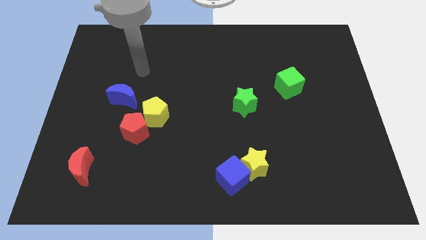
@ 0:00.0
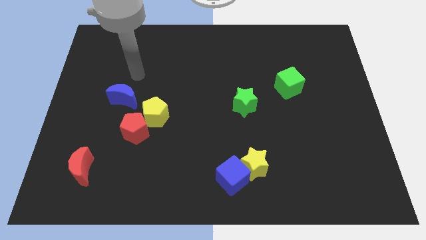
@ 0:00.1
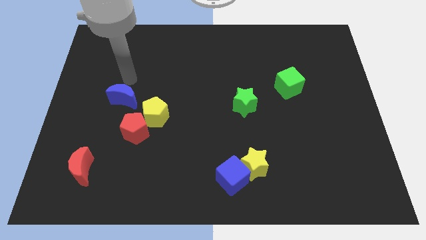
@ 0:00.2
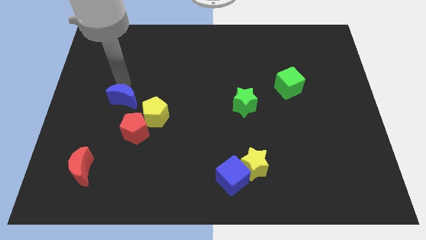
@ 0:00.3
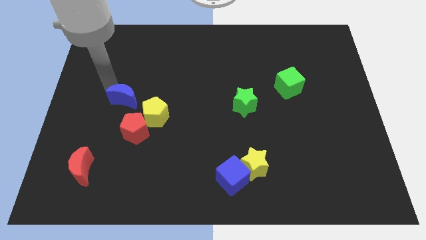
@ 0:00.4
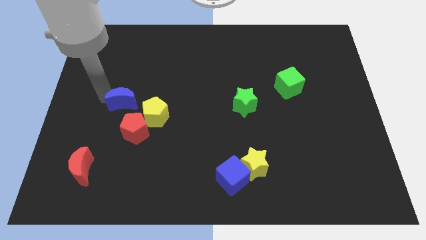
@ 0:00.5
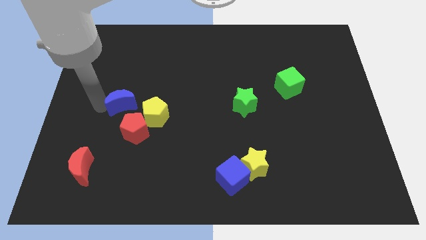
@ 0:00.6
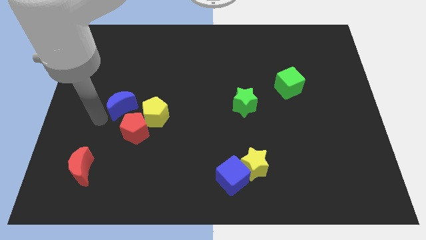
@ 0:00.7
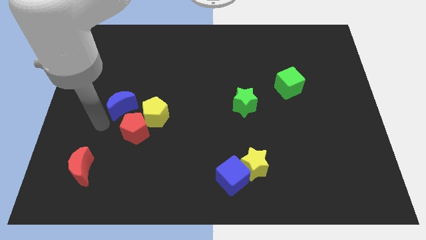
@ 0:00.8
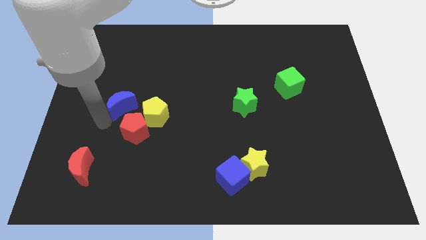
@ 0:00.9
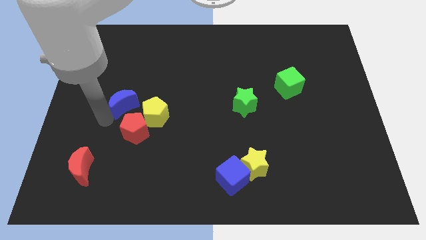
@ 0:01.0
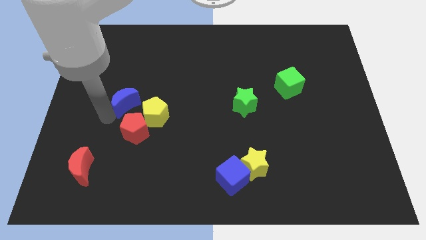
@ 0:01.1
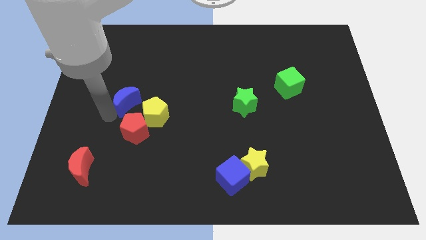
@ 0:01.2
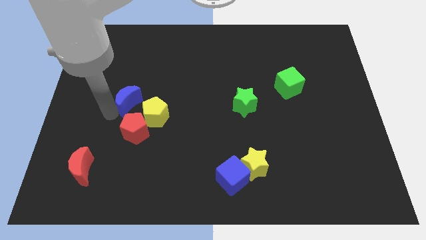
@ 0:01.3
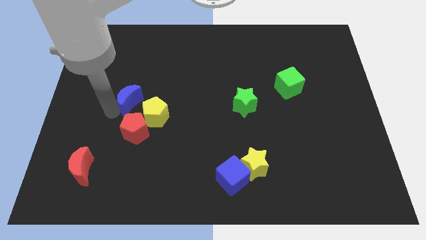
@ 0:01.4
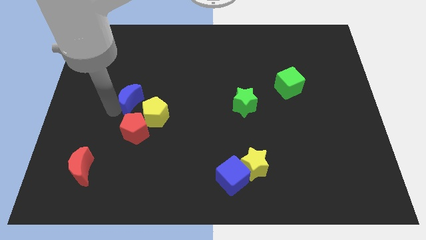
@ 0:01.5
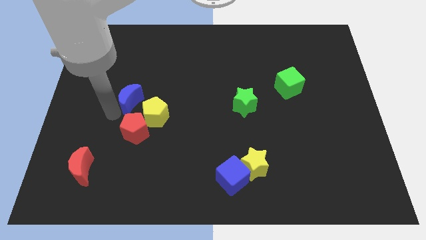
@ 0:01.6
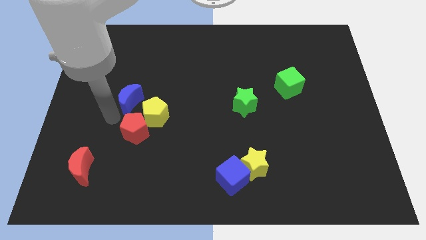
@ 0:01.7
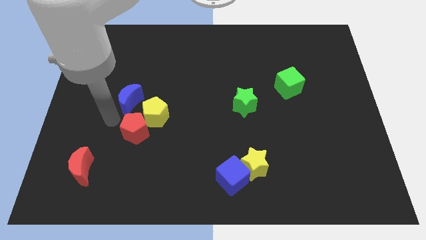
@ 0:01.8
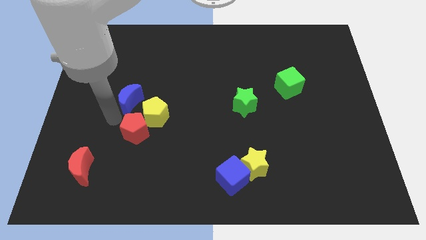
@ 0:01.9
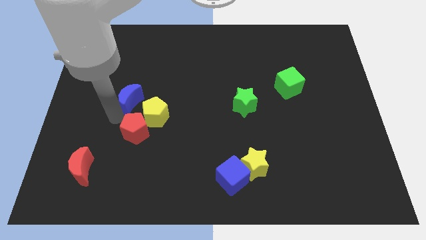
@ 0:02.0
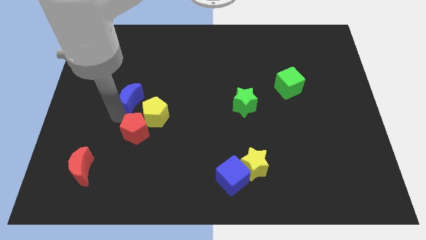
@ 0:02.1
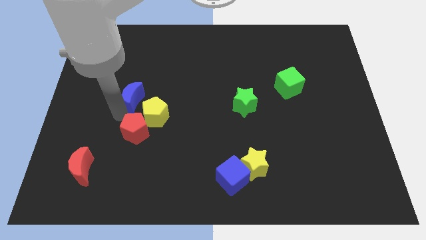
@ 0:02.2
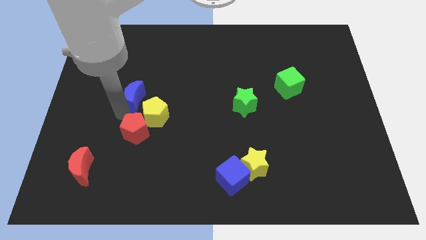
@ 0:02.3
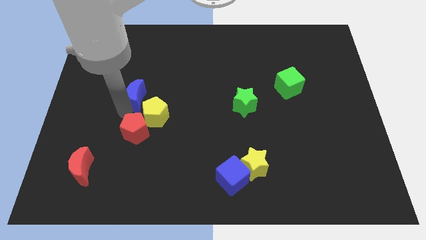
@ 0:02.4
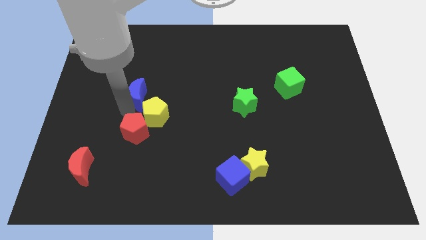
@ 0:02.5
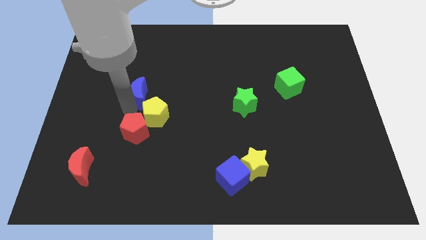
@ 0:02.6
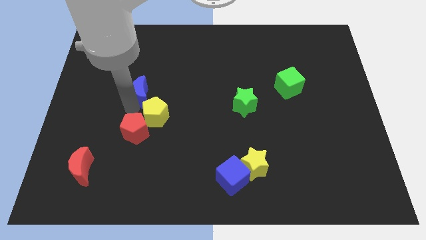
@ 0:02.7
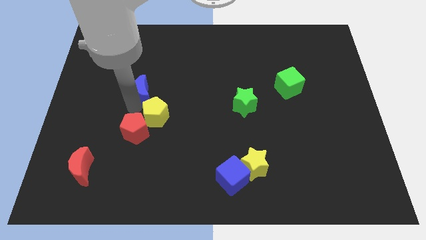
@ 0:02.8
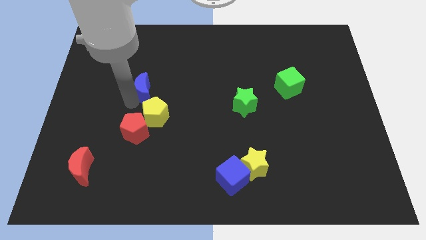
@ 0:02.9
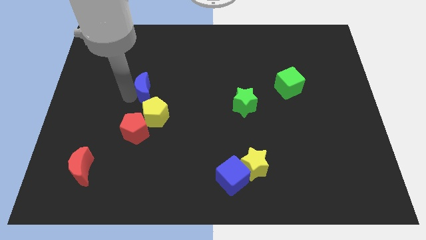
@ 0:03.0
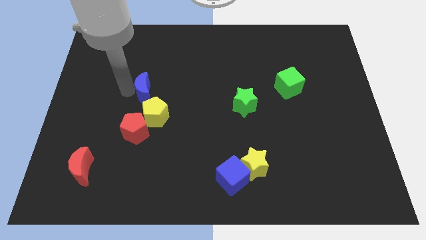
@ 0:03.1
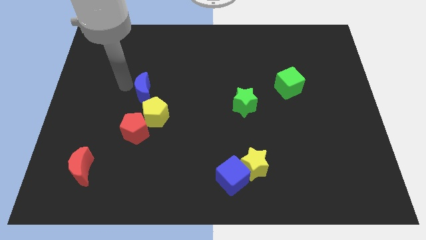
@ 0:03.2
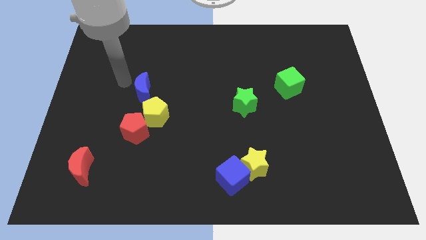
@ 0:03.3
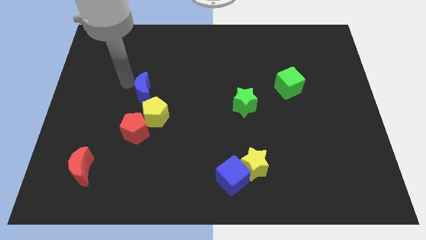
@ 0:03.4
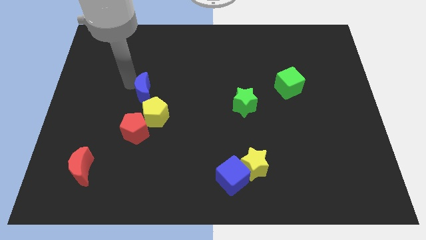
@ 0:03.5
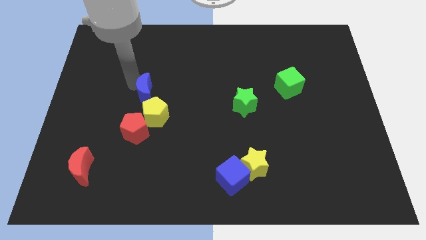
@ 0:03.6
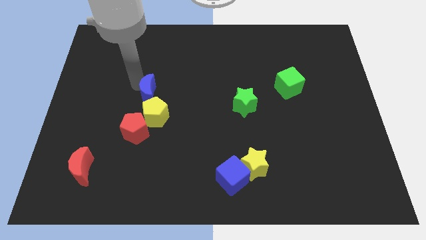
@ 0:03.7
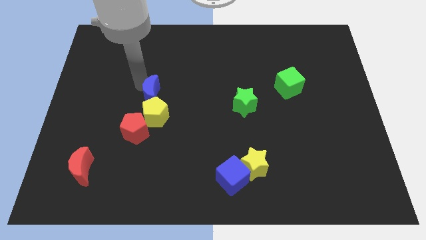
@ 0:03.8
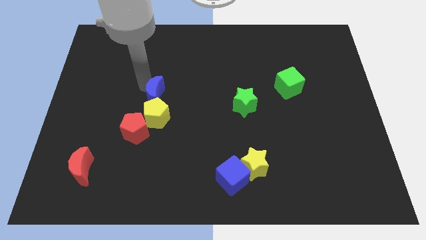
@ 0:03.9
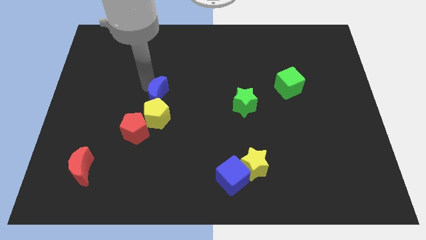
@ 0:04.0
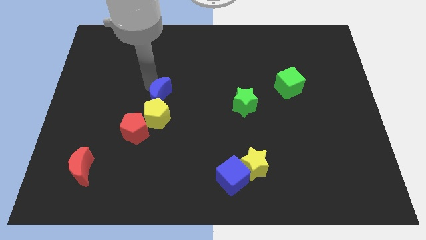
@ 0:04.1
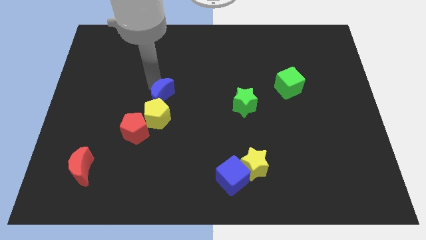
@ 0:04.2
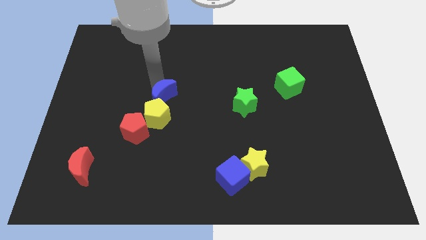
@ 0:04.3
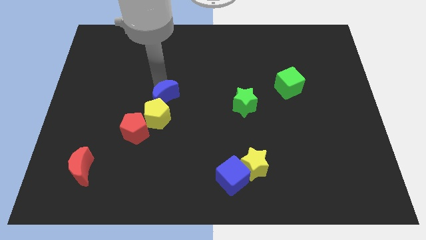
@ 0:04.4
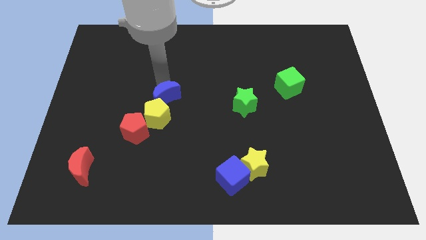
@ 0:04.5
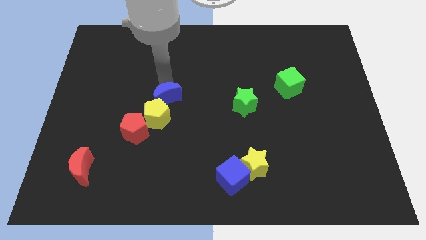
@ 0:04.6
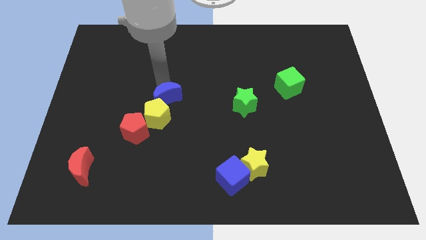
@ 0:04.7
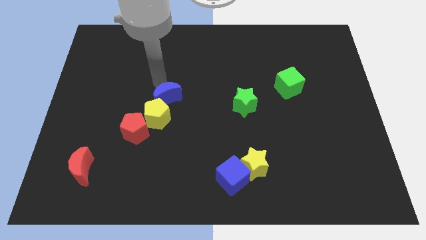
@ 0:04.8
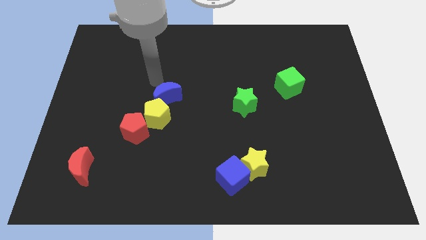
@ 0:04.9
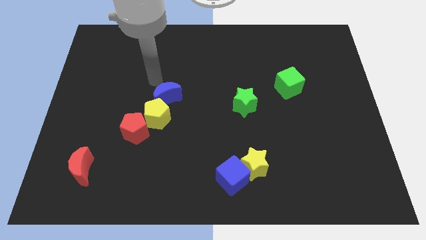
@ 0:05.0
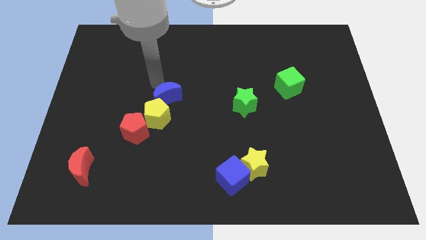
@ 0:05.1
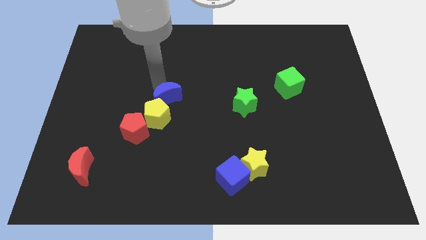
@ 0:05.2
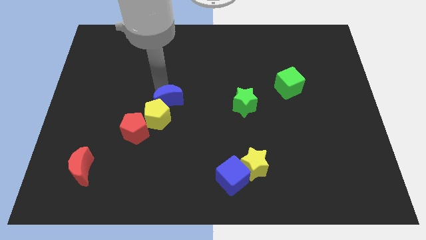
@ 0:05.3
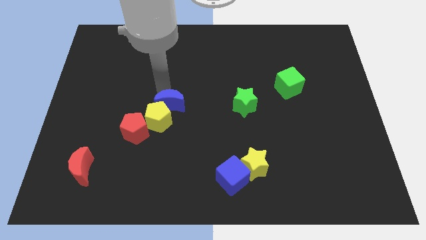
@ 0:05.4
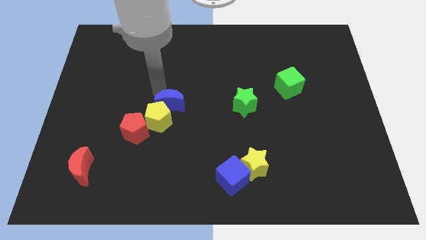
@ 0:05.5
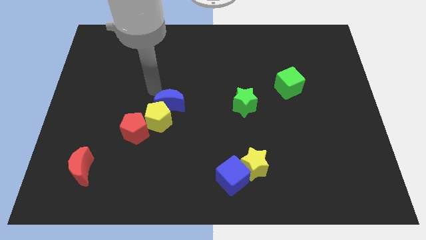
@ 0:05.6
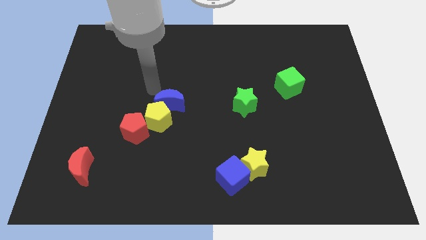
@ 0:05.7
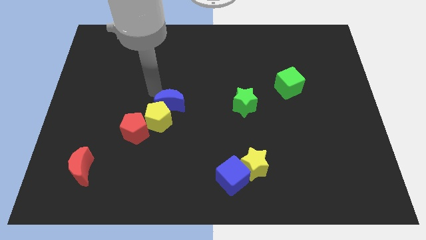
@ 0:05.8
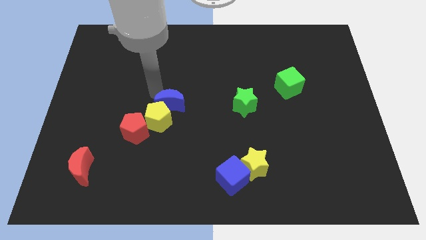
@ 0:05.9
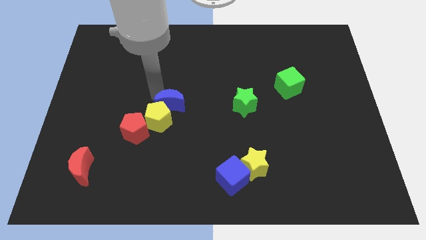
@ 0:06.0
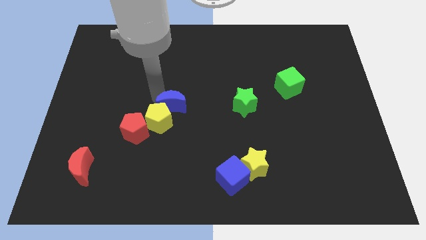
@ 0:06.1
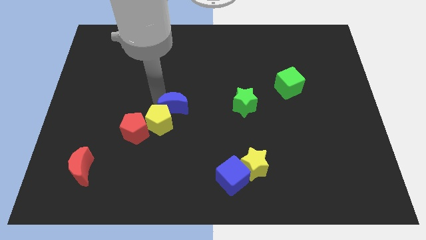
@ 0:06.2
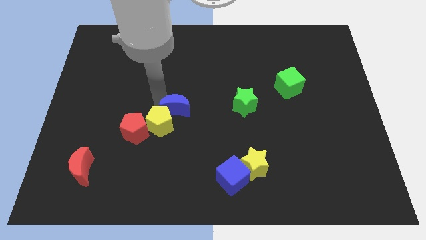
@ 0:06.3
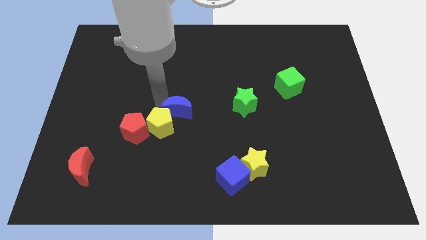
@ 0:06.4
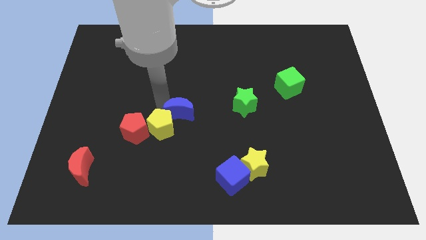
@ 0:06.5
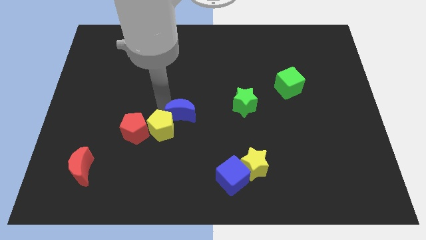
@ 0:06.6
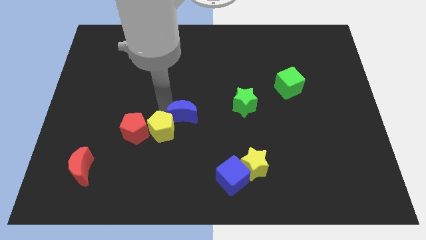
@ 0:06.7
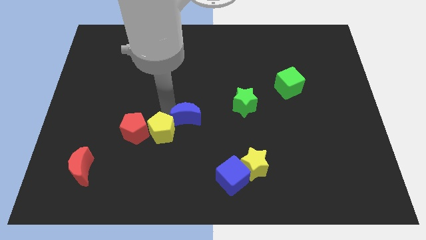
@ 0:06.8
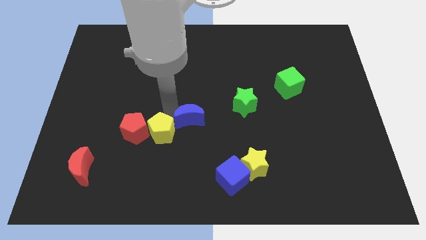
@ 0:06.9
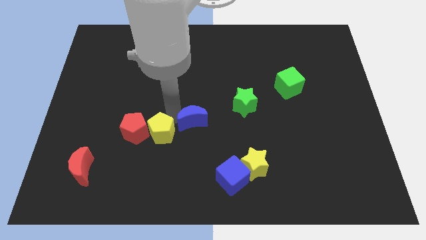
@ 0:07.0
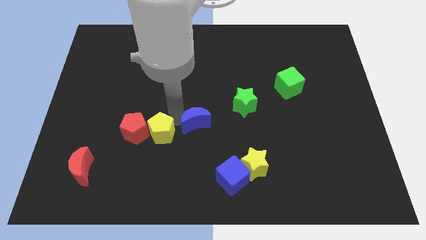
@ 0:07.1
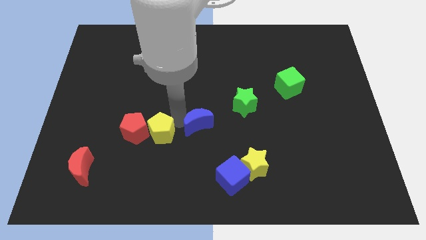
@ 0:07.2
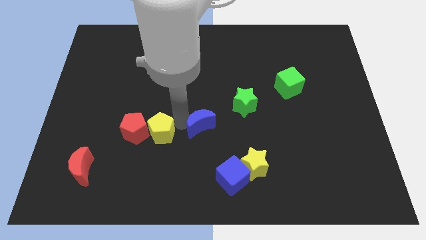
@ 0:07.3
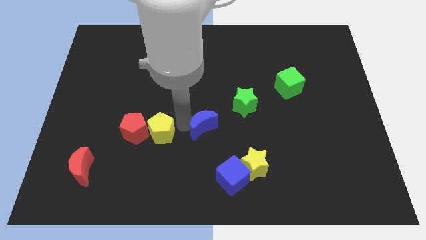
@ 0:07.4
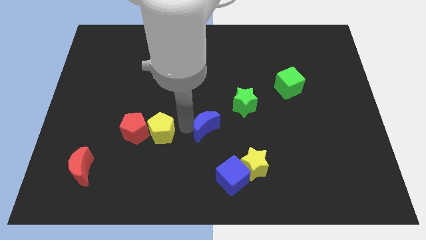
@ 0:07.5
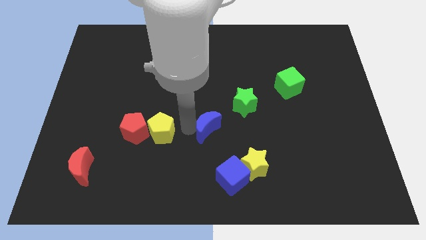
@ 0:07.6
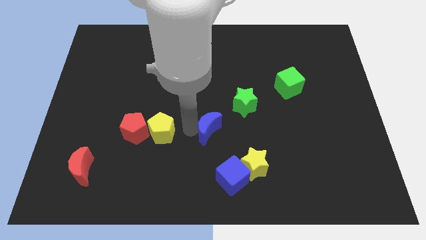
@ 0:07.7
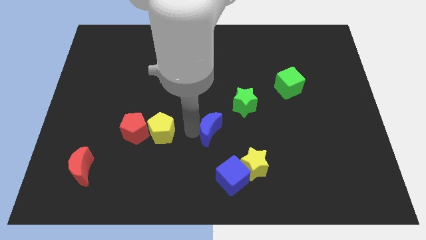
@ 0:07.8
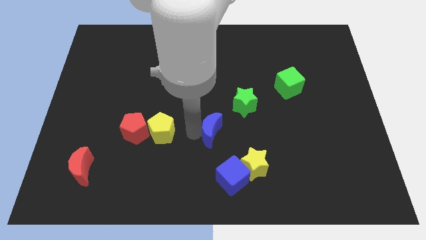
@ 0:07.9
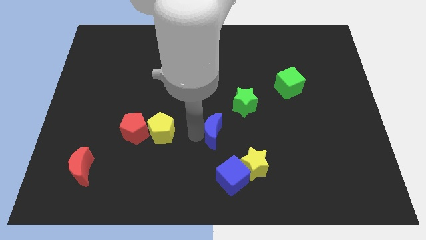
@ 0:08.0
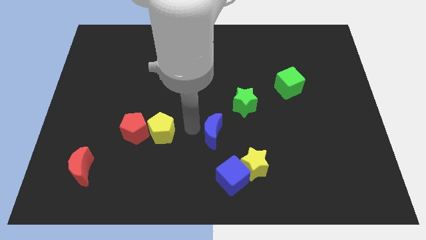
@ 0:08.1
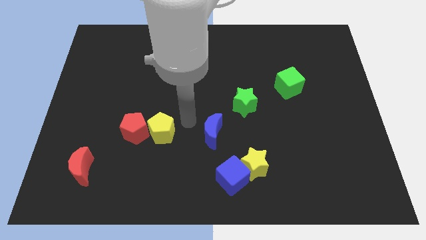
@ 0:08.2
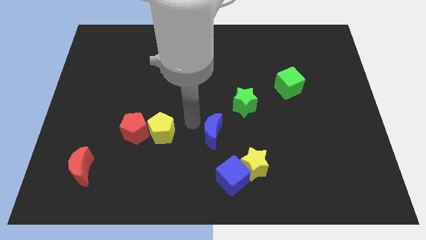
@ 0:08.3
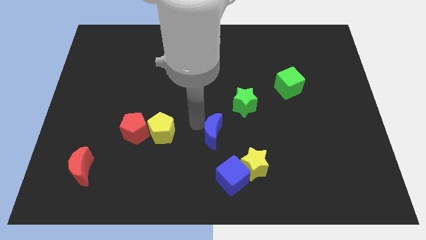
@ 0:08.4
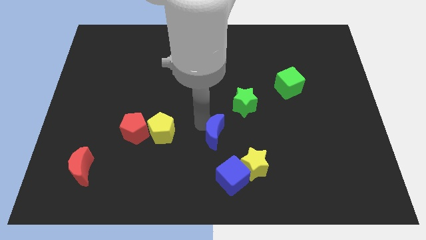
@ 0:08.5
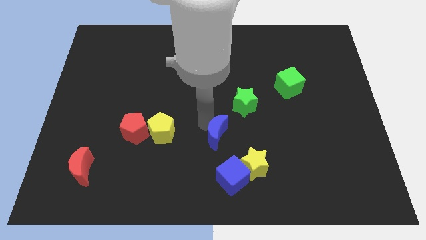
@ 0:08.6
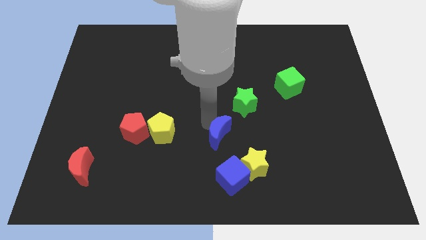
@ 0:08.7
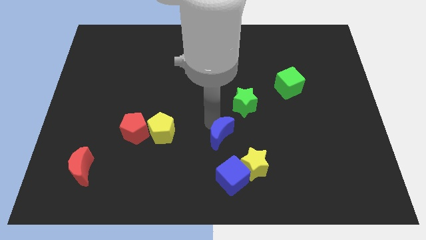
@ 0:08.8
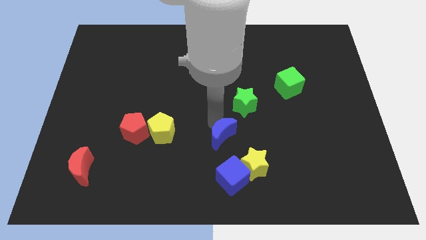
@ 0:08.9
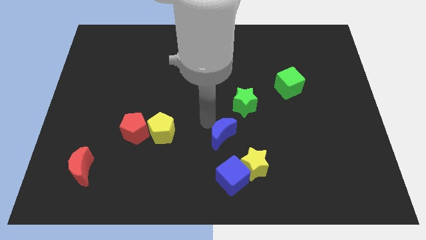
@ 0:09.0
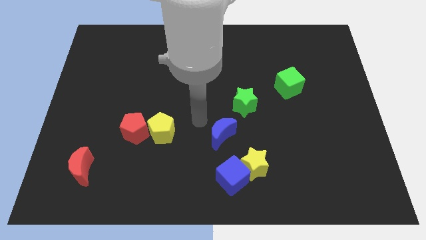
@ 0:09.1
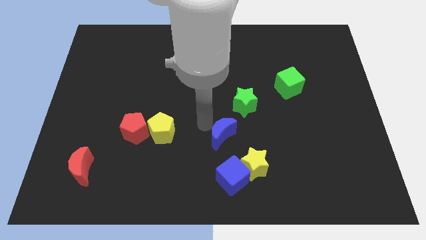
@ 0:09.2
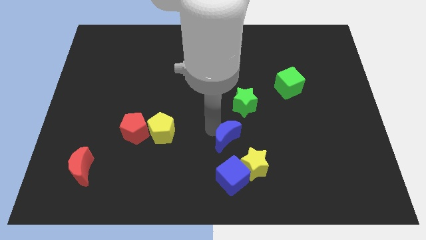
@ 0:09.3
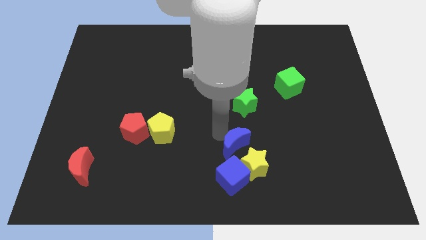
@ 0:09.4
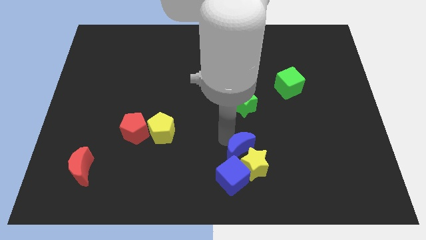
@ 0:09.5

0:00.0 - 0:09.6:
move the blue moon to the top right of the blue cube
